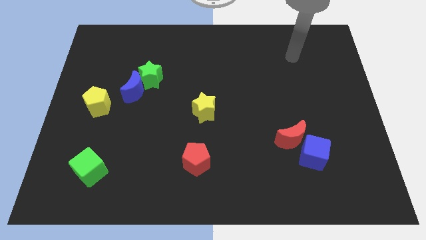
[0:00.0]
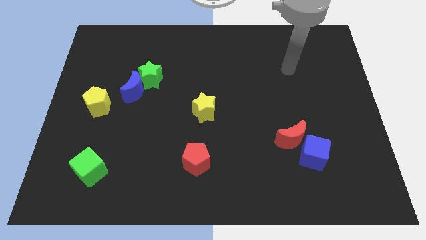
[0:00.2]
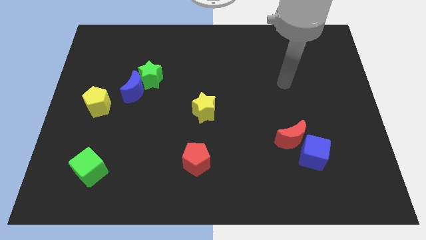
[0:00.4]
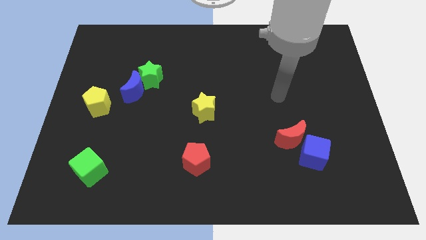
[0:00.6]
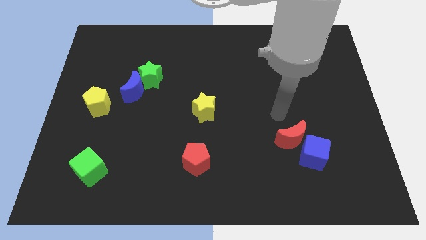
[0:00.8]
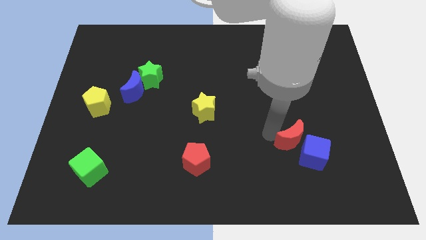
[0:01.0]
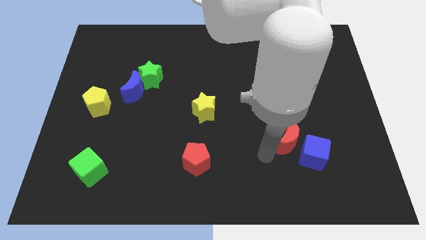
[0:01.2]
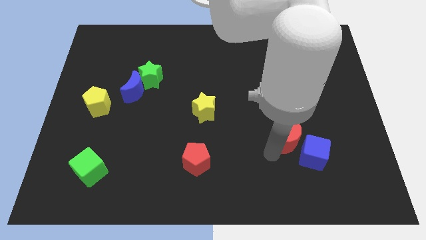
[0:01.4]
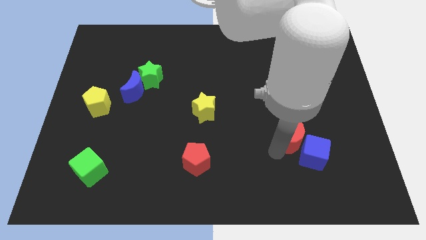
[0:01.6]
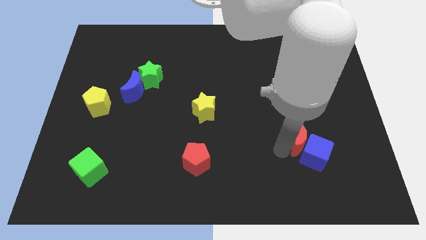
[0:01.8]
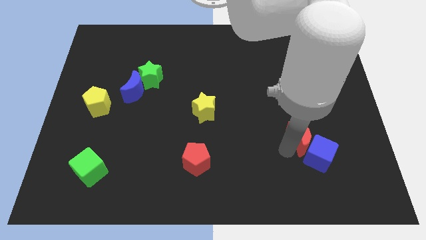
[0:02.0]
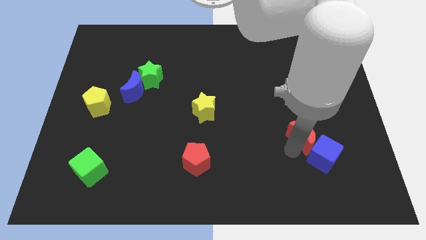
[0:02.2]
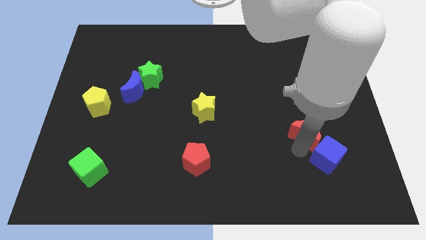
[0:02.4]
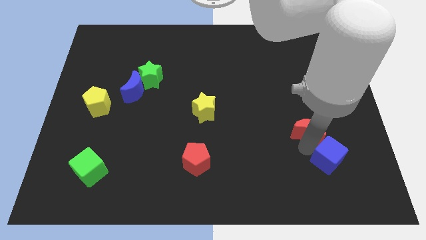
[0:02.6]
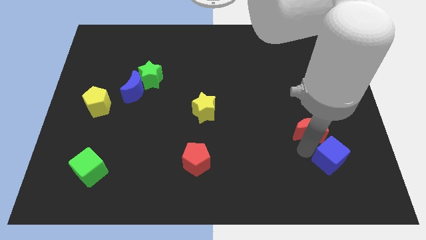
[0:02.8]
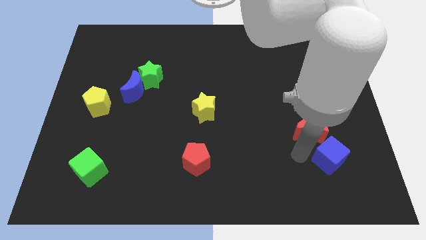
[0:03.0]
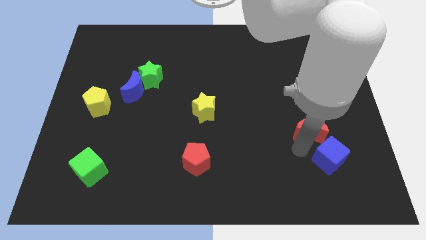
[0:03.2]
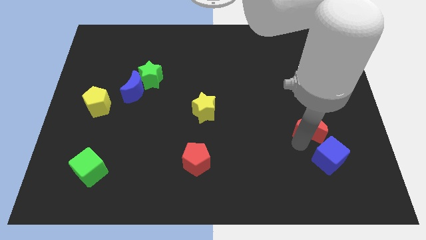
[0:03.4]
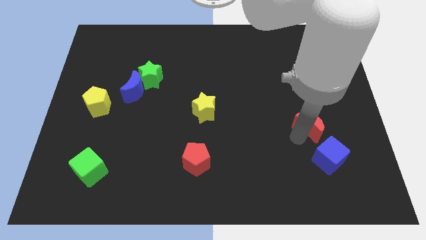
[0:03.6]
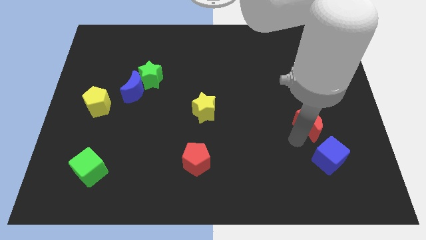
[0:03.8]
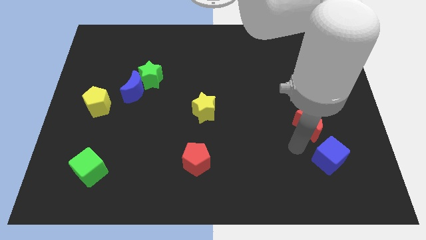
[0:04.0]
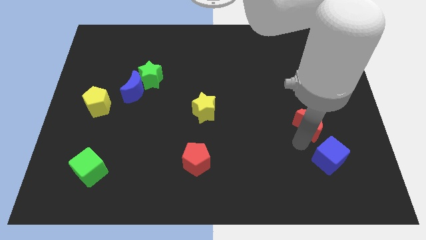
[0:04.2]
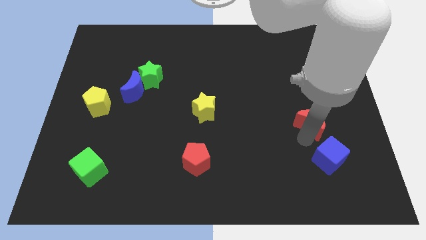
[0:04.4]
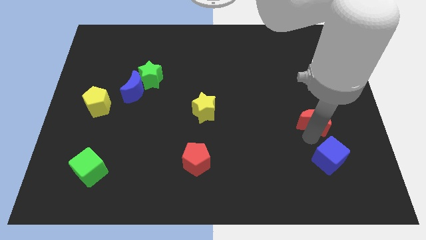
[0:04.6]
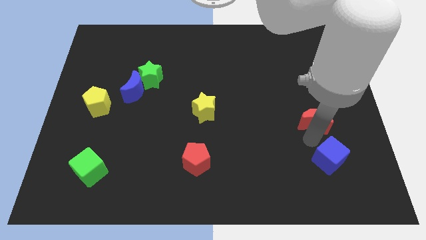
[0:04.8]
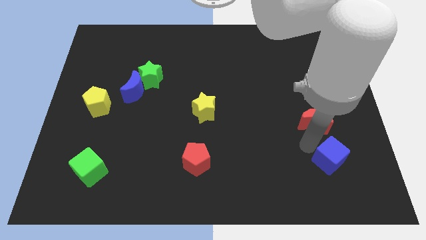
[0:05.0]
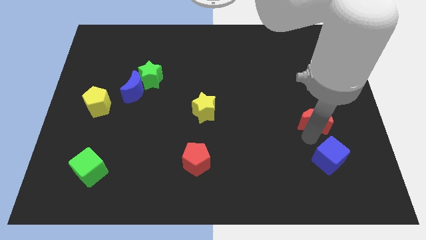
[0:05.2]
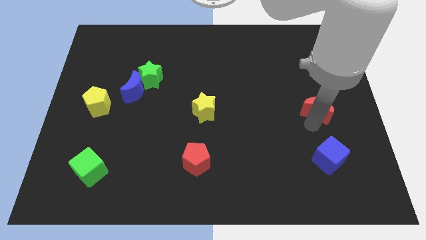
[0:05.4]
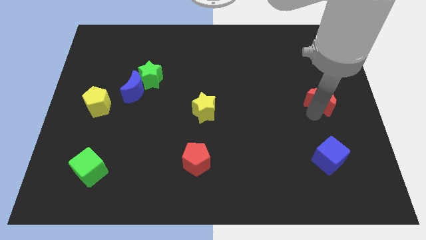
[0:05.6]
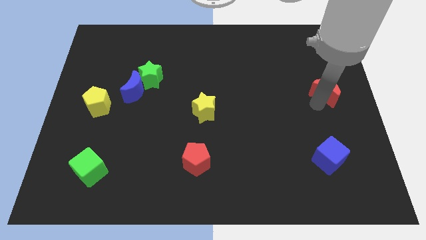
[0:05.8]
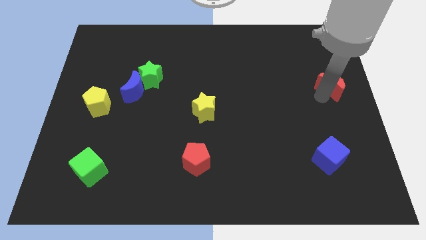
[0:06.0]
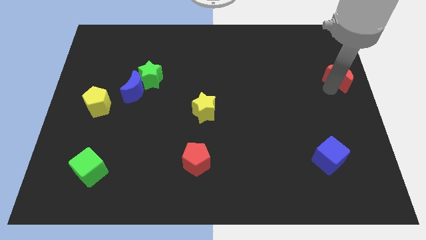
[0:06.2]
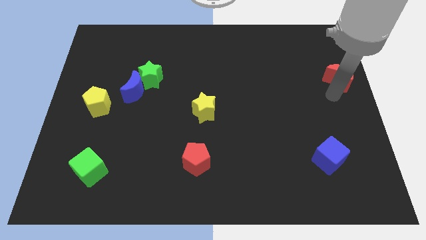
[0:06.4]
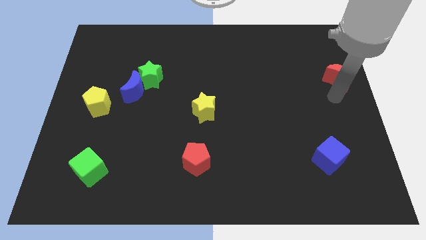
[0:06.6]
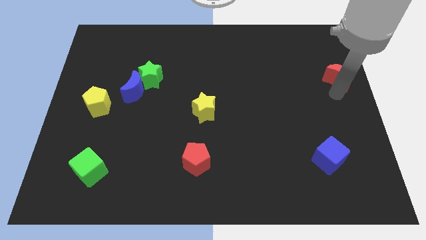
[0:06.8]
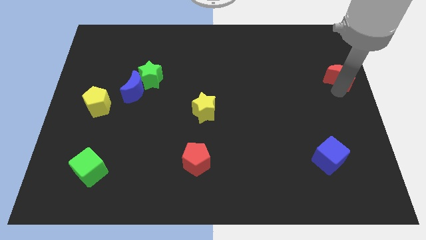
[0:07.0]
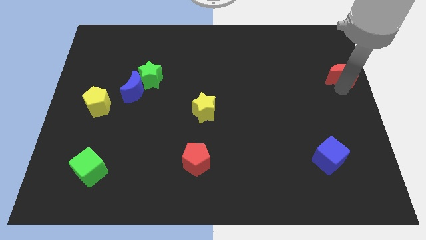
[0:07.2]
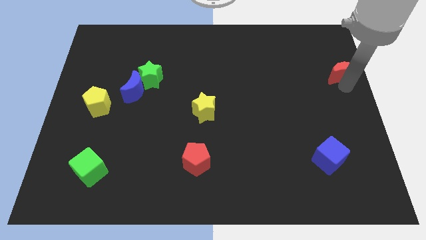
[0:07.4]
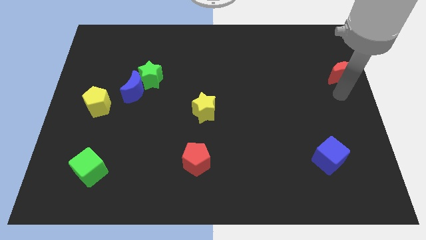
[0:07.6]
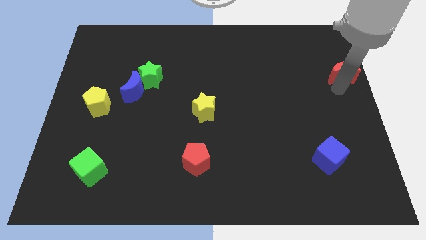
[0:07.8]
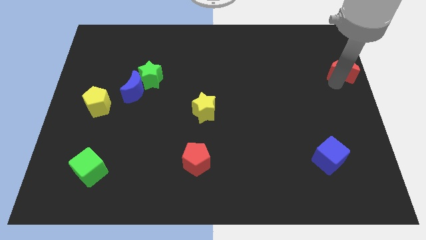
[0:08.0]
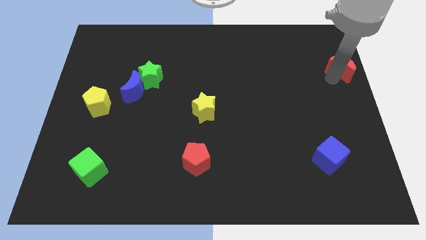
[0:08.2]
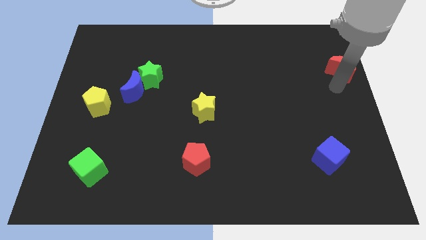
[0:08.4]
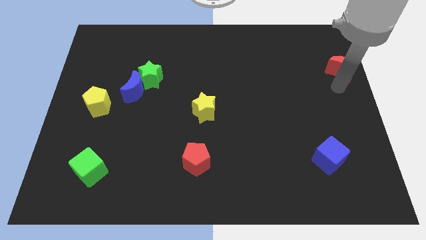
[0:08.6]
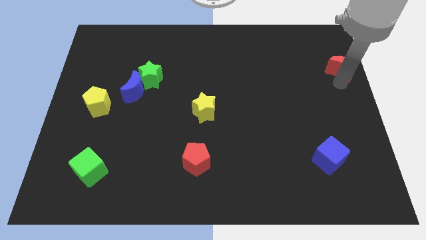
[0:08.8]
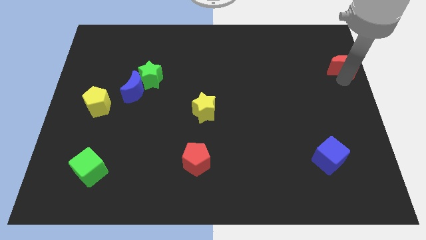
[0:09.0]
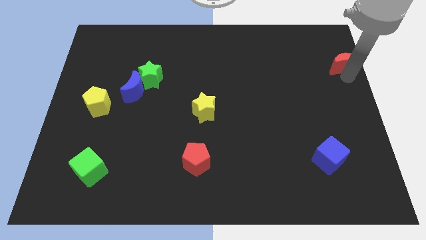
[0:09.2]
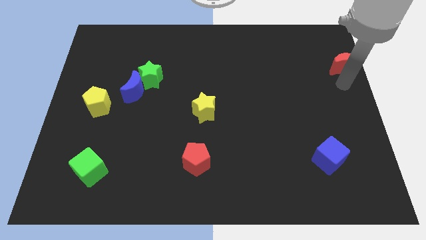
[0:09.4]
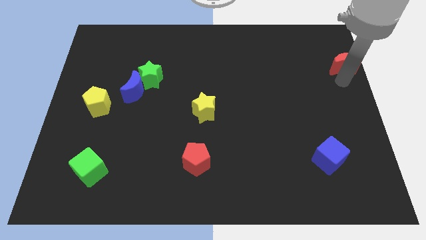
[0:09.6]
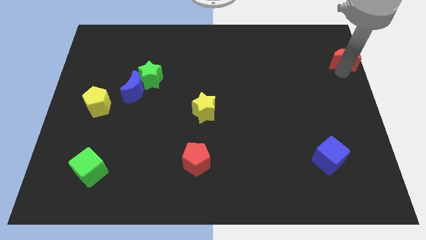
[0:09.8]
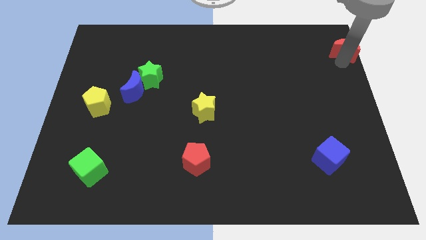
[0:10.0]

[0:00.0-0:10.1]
put the red moon to the top right corner

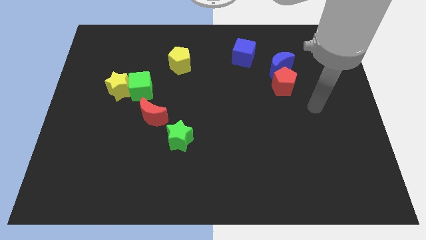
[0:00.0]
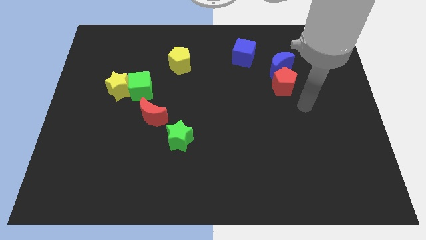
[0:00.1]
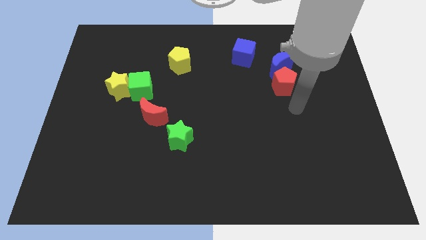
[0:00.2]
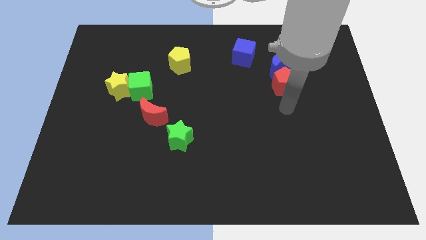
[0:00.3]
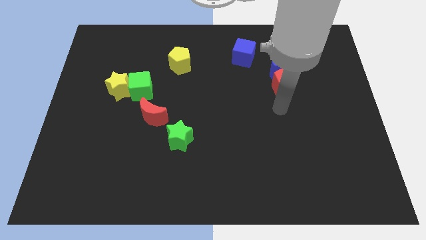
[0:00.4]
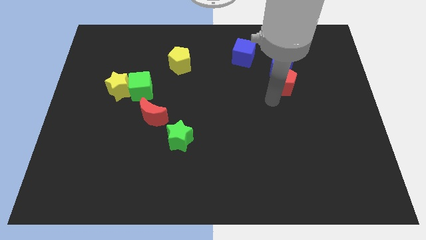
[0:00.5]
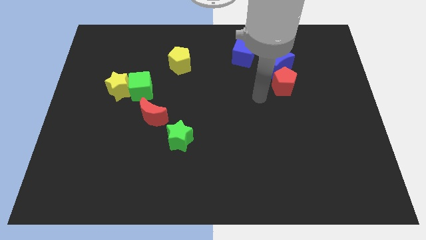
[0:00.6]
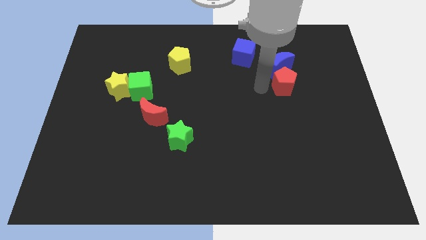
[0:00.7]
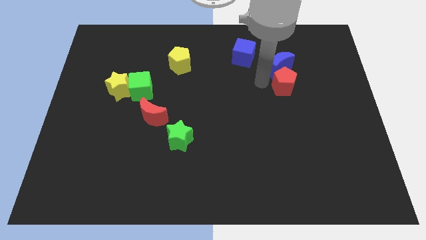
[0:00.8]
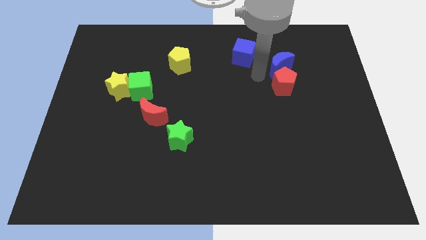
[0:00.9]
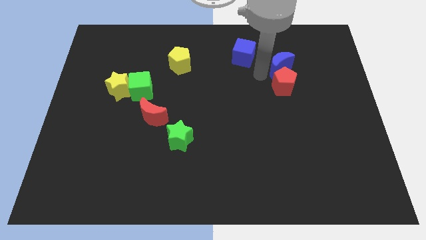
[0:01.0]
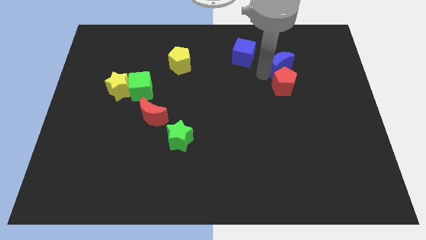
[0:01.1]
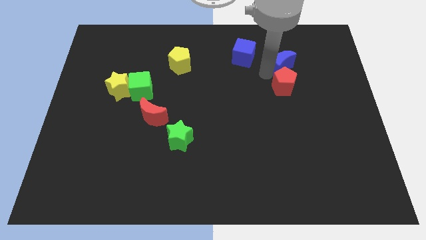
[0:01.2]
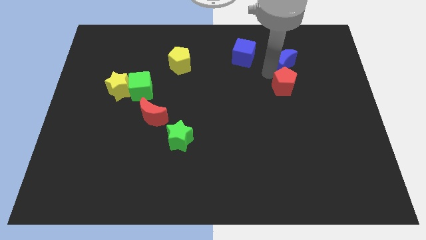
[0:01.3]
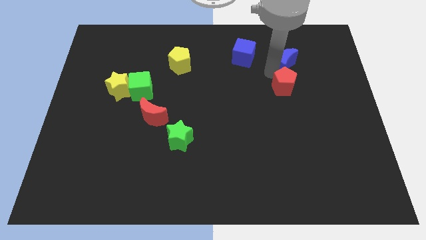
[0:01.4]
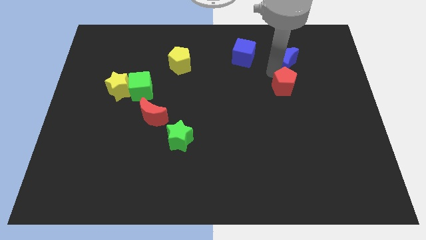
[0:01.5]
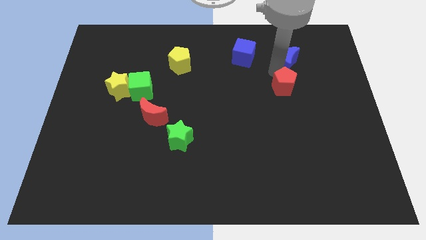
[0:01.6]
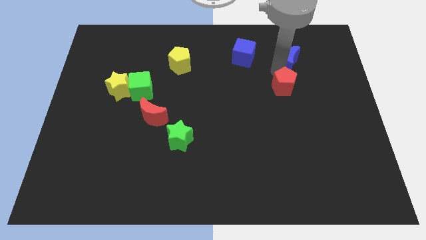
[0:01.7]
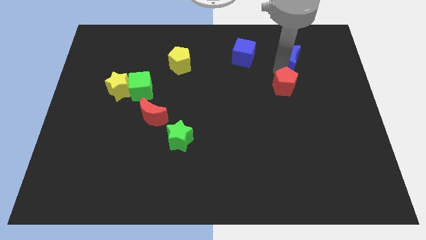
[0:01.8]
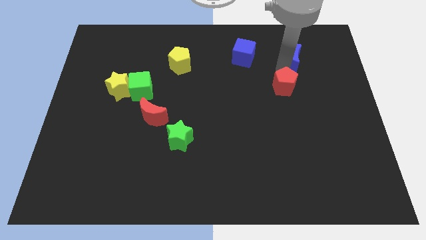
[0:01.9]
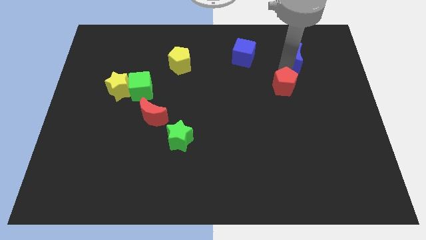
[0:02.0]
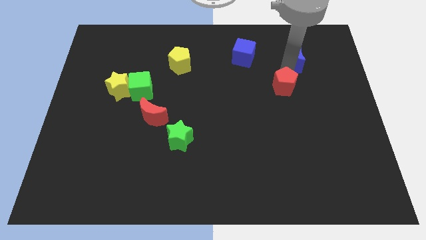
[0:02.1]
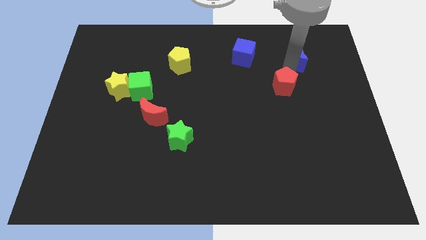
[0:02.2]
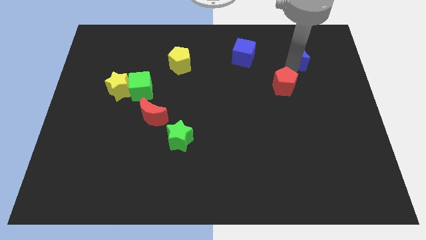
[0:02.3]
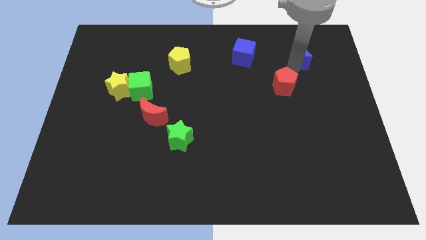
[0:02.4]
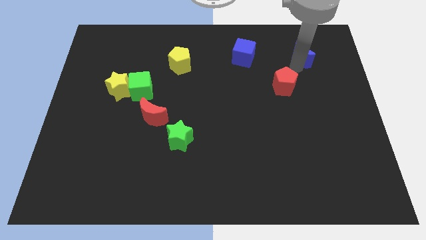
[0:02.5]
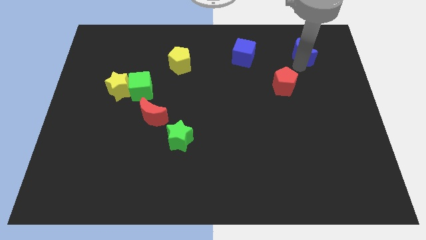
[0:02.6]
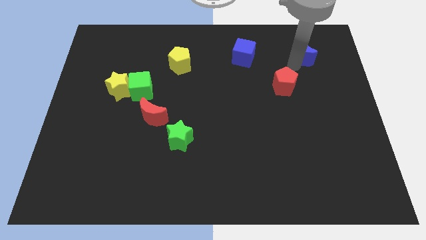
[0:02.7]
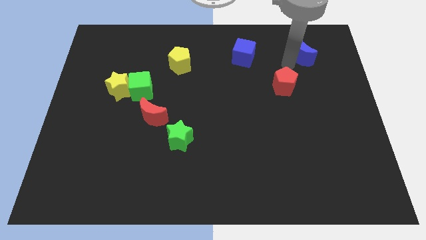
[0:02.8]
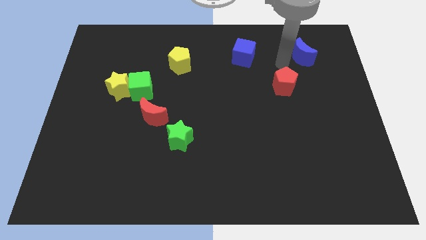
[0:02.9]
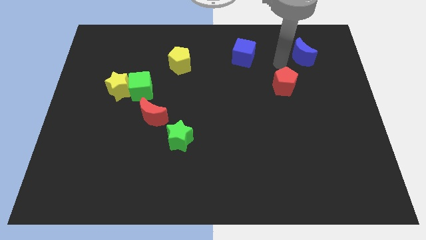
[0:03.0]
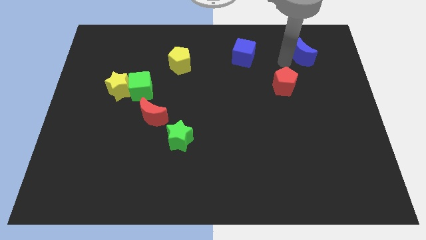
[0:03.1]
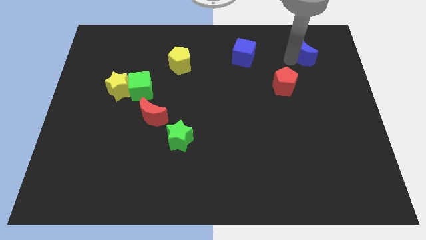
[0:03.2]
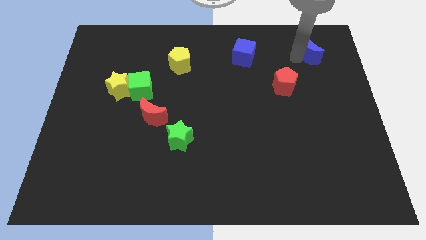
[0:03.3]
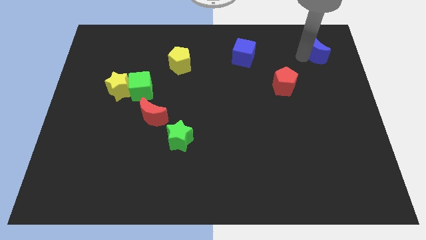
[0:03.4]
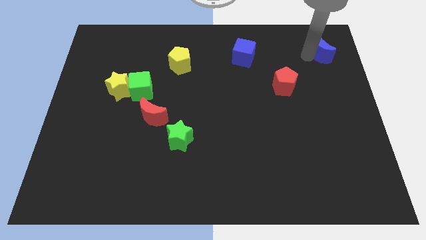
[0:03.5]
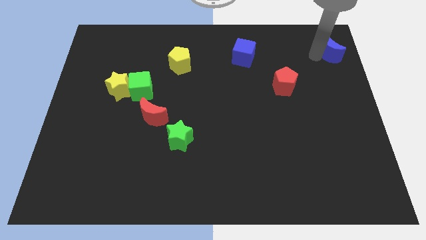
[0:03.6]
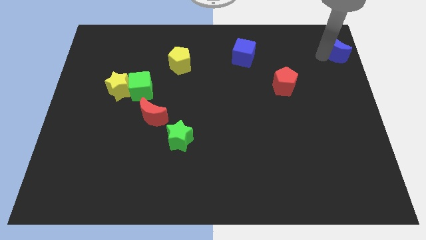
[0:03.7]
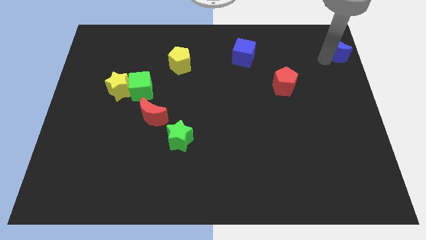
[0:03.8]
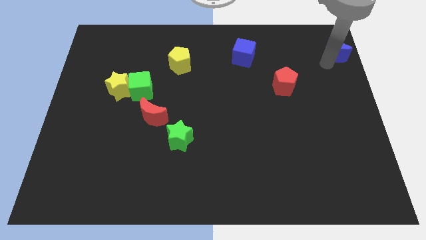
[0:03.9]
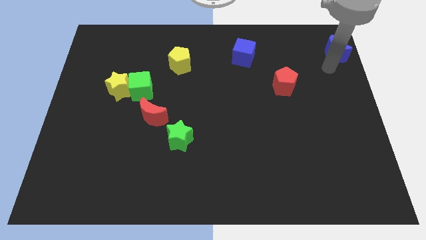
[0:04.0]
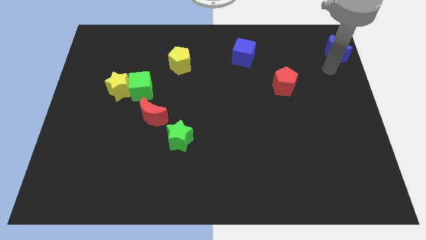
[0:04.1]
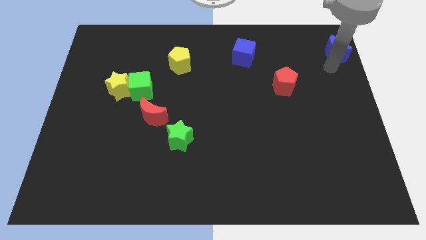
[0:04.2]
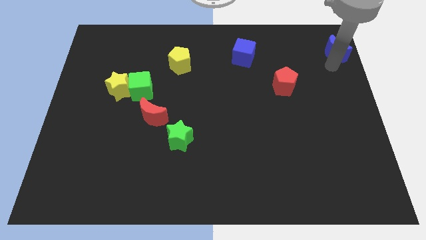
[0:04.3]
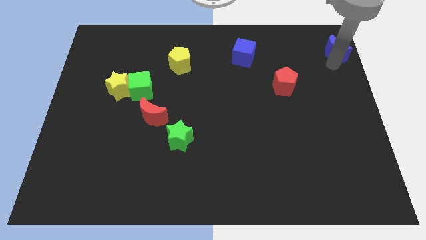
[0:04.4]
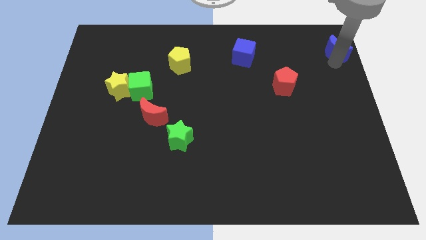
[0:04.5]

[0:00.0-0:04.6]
push the blue moon to the top right
